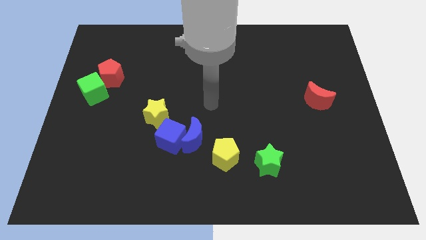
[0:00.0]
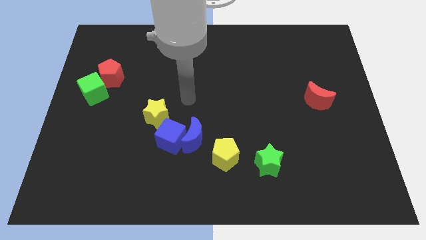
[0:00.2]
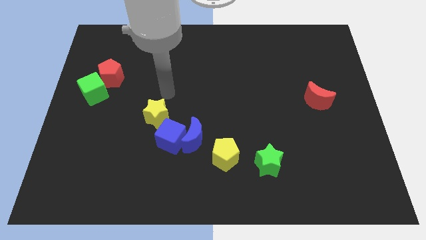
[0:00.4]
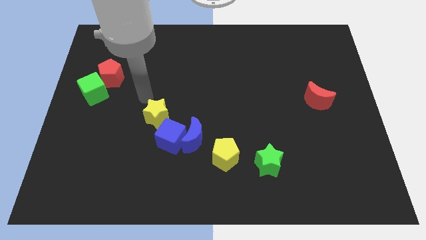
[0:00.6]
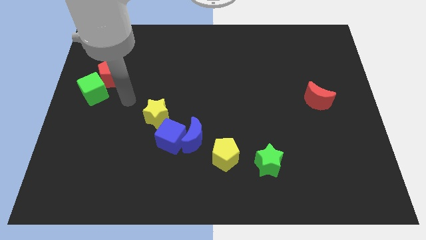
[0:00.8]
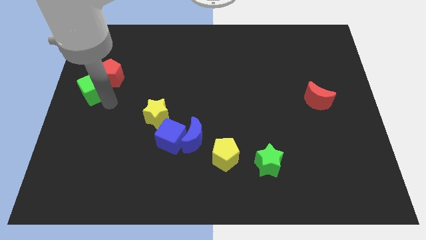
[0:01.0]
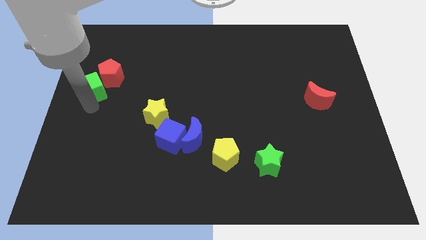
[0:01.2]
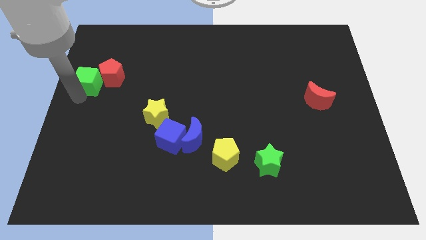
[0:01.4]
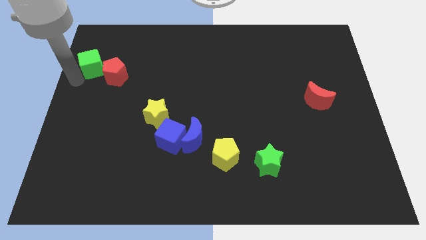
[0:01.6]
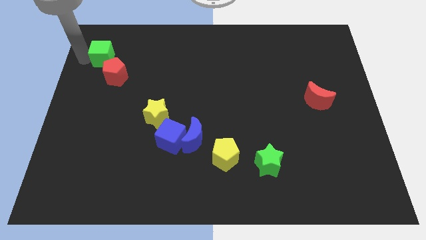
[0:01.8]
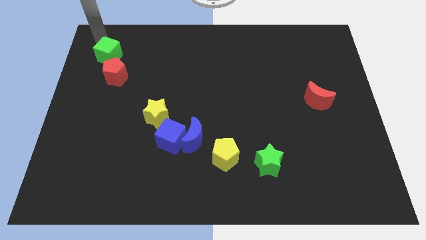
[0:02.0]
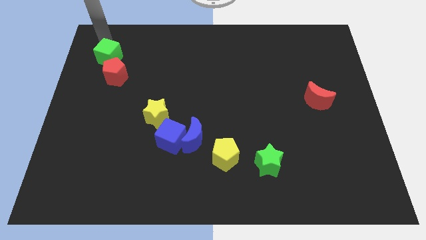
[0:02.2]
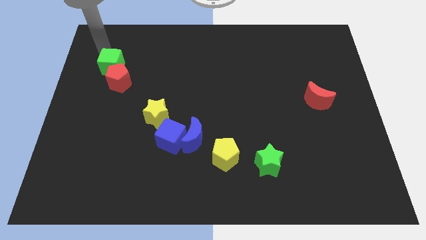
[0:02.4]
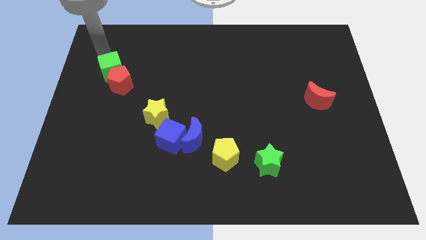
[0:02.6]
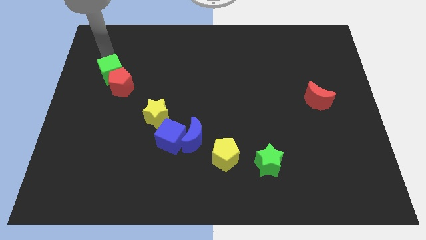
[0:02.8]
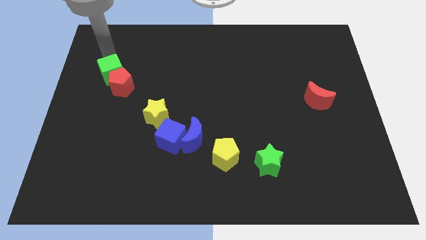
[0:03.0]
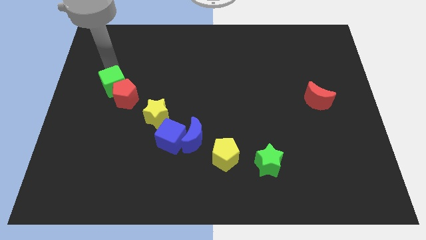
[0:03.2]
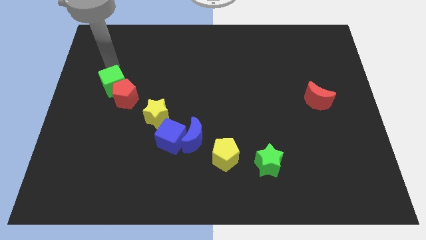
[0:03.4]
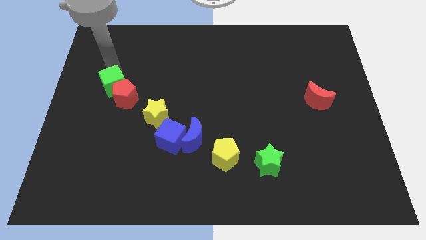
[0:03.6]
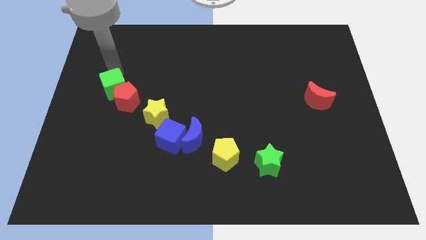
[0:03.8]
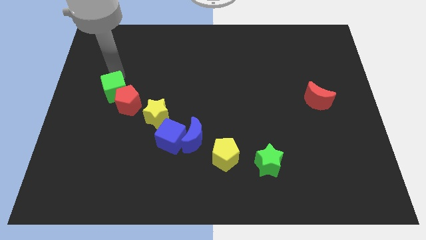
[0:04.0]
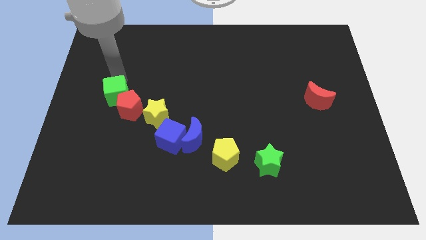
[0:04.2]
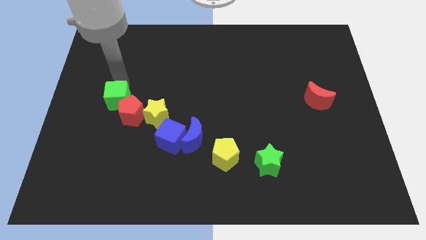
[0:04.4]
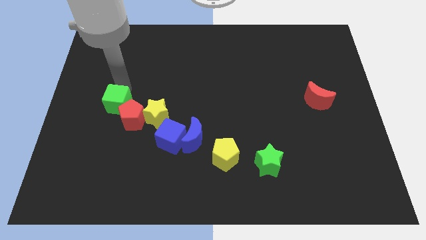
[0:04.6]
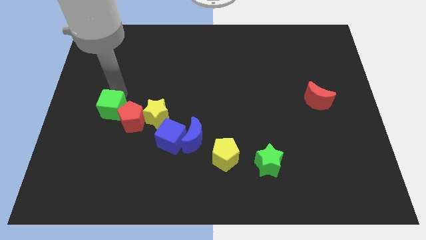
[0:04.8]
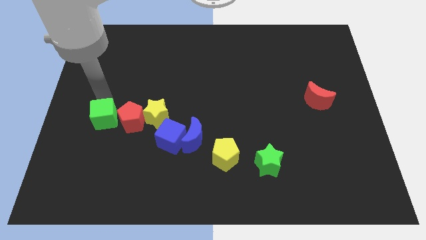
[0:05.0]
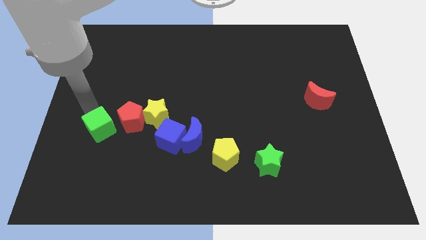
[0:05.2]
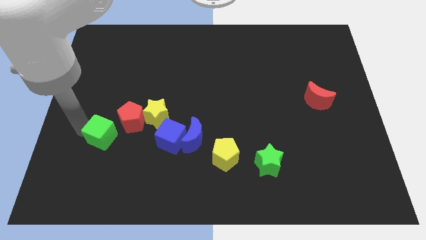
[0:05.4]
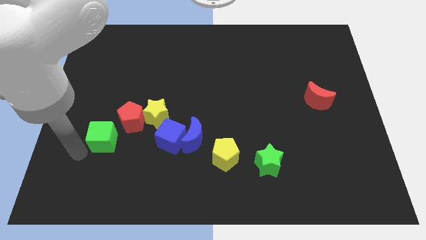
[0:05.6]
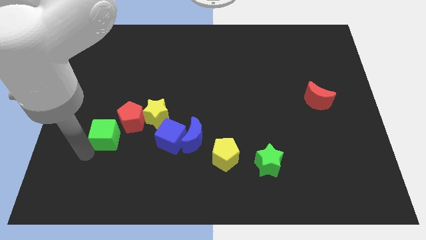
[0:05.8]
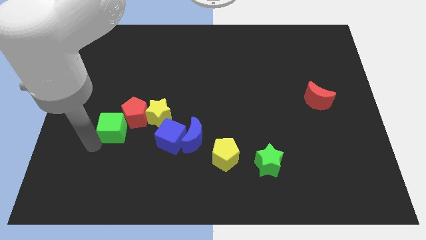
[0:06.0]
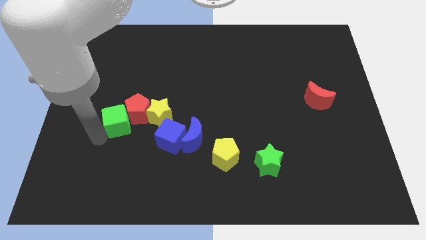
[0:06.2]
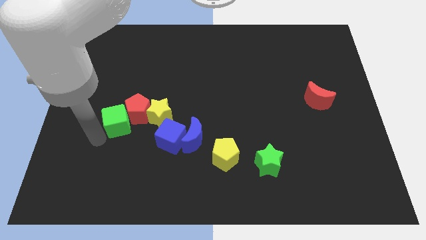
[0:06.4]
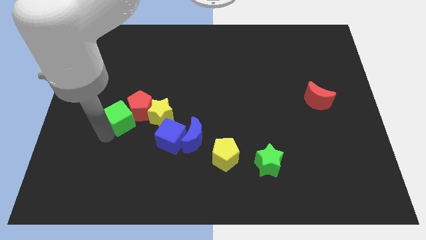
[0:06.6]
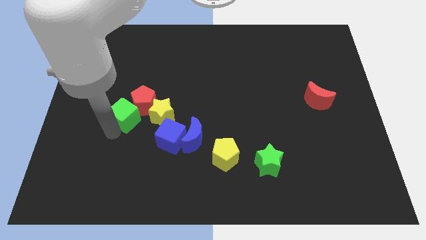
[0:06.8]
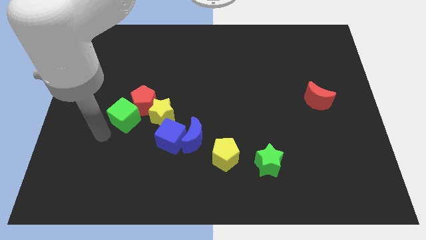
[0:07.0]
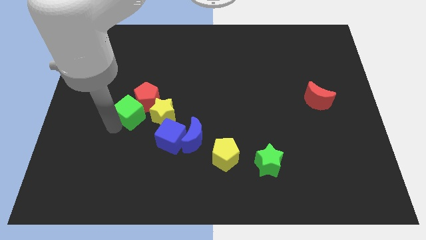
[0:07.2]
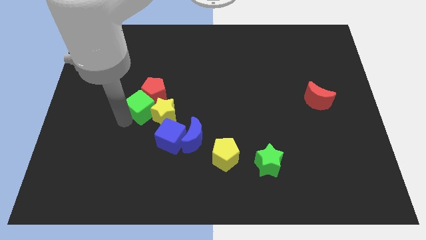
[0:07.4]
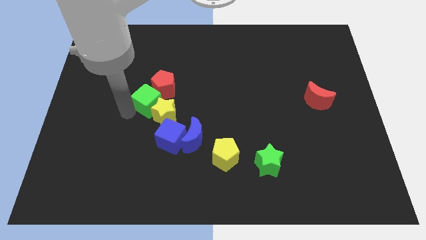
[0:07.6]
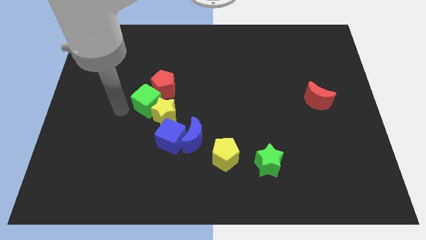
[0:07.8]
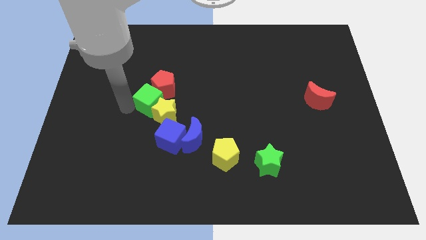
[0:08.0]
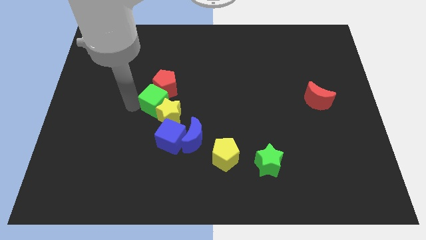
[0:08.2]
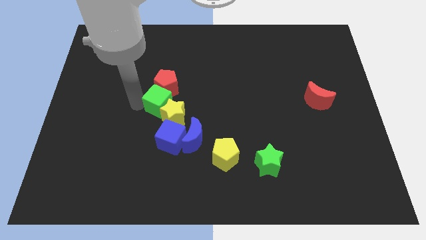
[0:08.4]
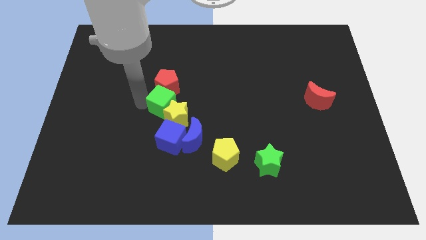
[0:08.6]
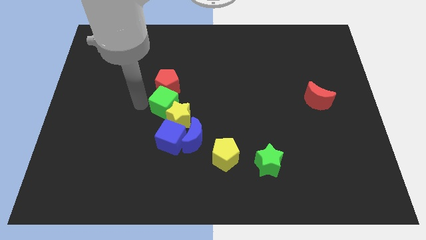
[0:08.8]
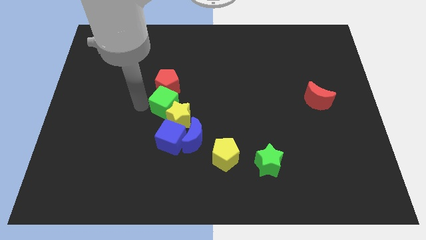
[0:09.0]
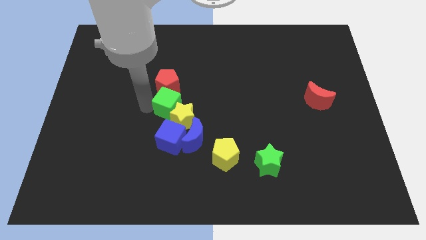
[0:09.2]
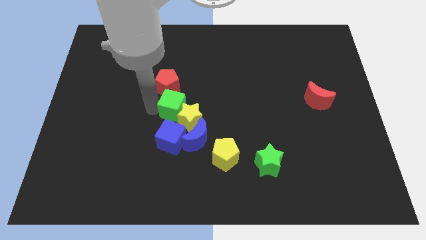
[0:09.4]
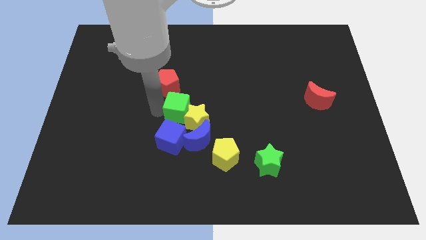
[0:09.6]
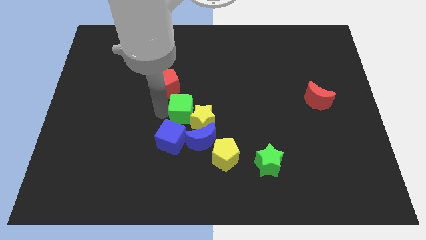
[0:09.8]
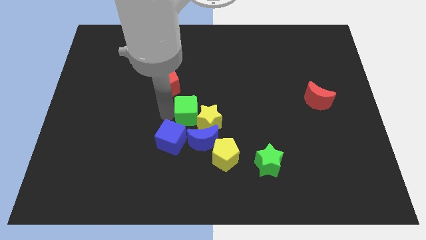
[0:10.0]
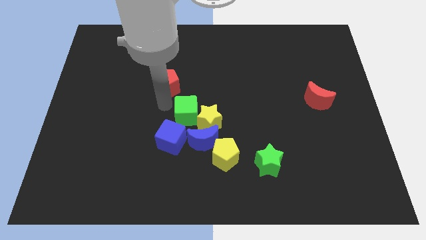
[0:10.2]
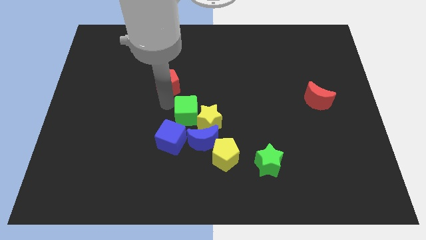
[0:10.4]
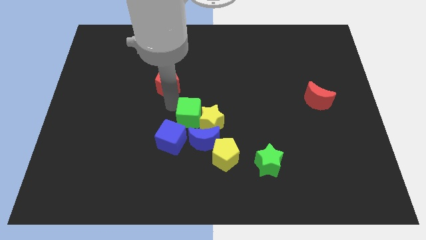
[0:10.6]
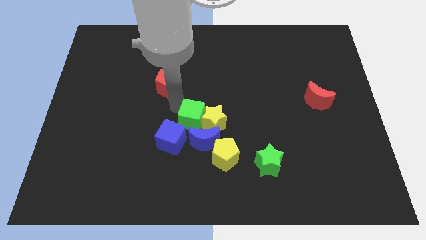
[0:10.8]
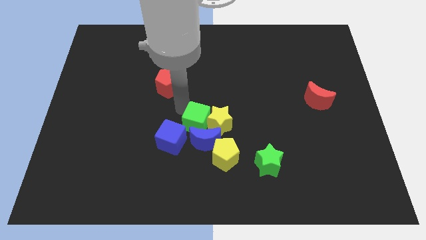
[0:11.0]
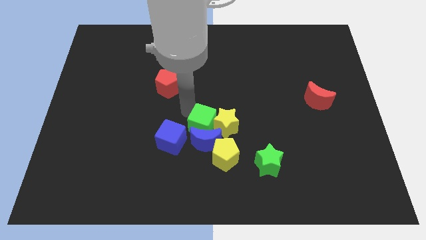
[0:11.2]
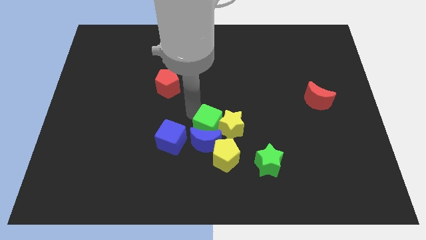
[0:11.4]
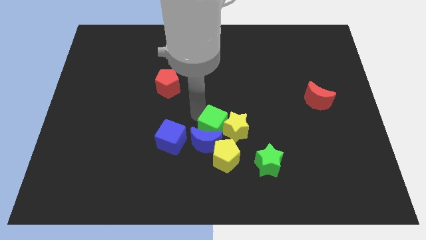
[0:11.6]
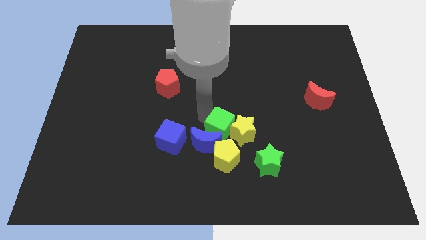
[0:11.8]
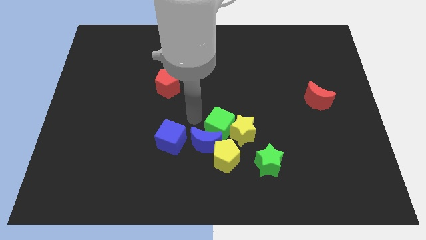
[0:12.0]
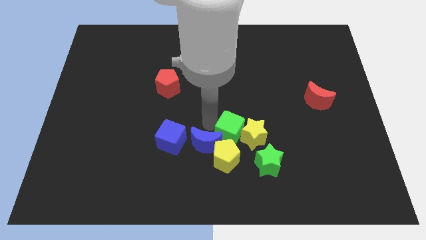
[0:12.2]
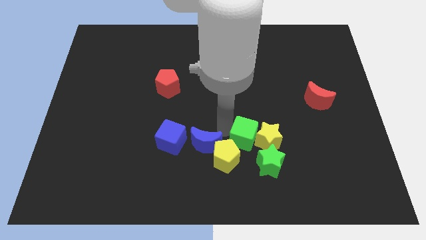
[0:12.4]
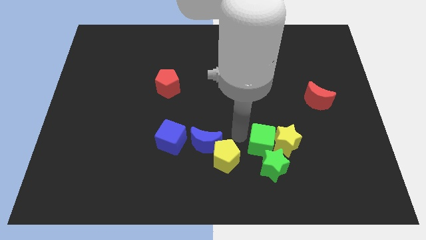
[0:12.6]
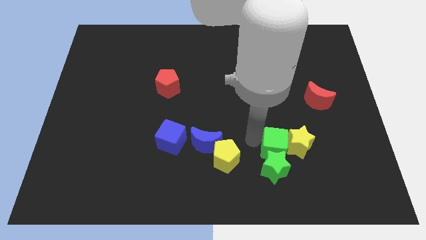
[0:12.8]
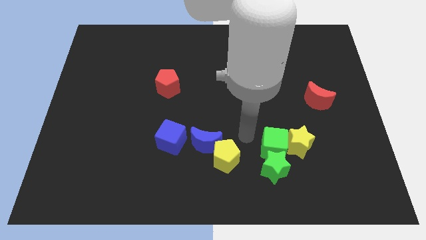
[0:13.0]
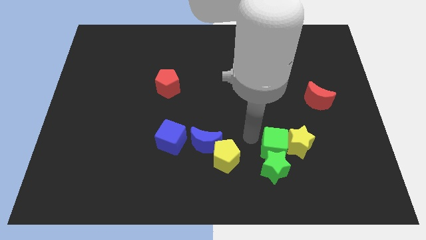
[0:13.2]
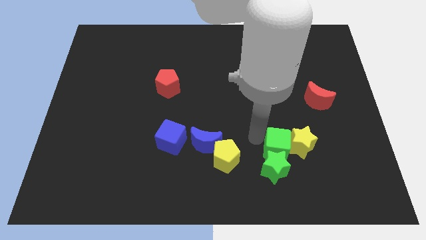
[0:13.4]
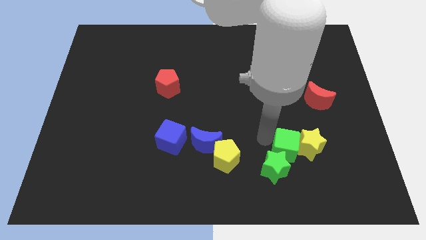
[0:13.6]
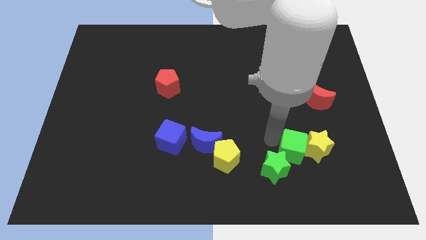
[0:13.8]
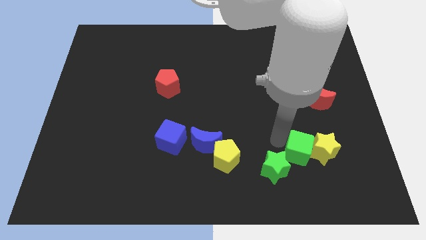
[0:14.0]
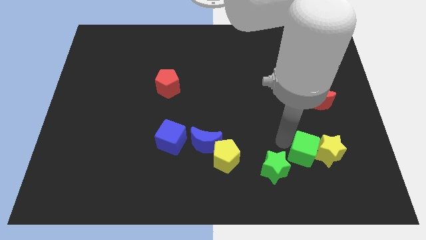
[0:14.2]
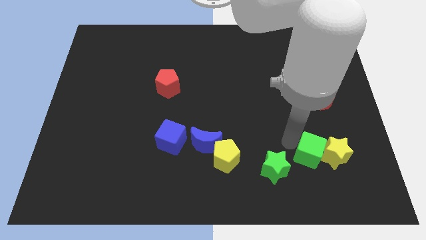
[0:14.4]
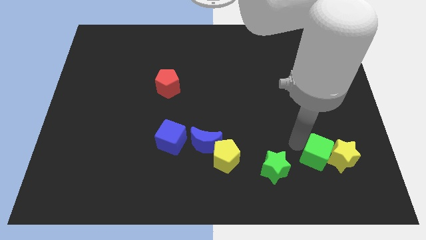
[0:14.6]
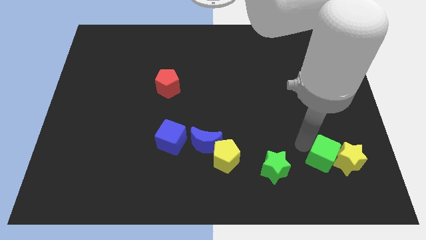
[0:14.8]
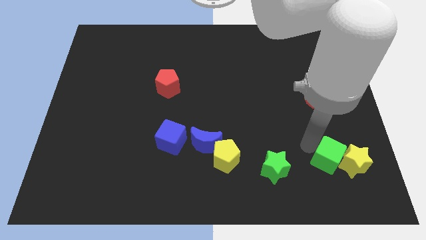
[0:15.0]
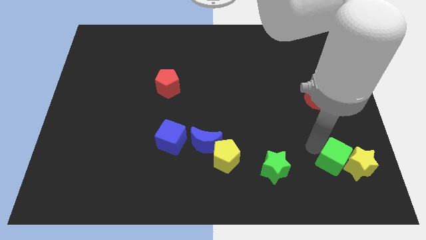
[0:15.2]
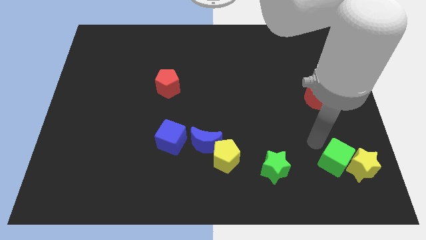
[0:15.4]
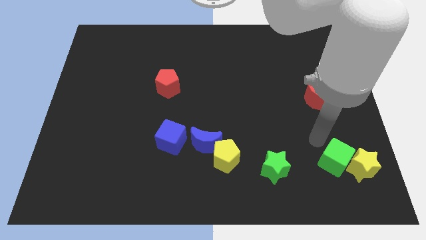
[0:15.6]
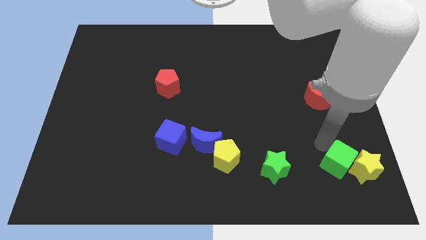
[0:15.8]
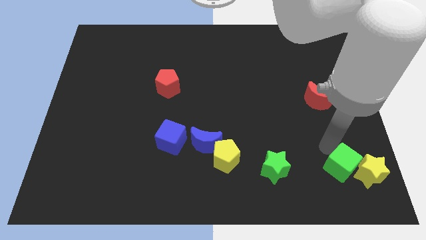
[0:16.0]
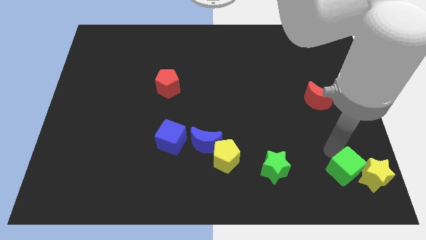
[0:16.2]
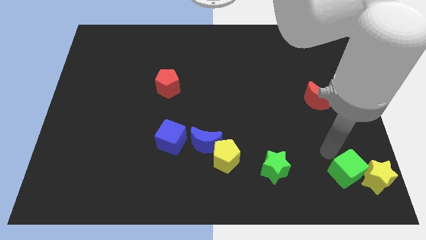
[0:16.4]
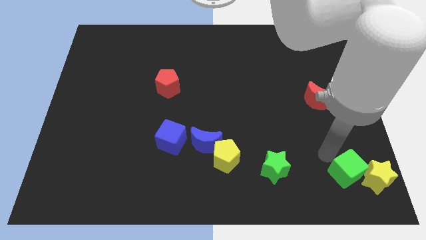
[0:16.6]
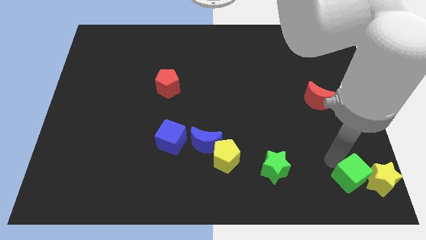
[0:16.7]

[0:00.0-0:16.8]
slide the green cube to the lower right corner
